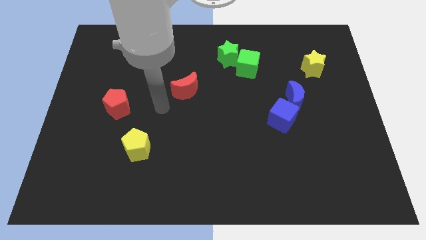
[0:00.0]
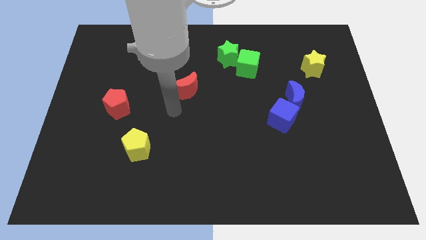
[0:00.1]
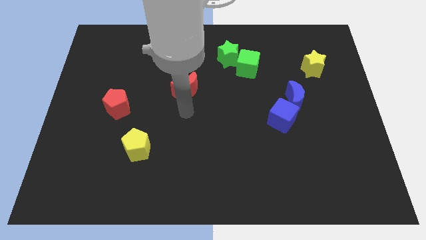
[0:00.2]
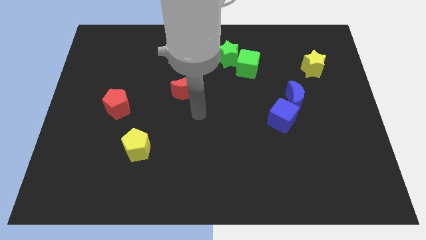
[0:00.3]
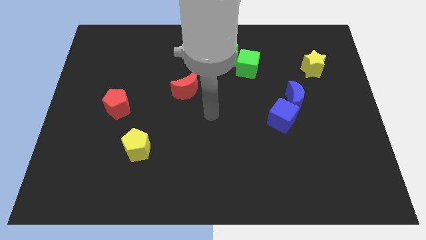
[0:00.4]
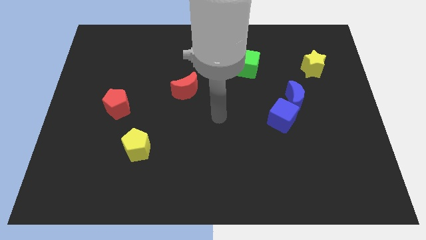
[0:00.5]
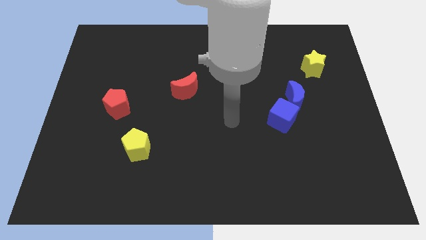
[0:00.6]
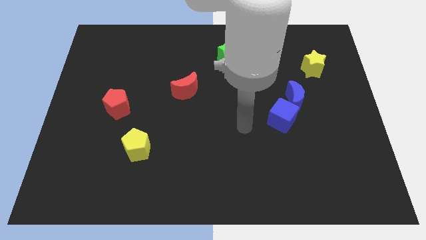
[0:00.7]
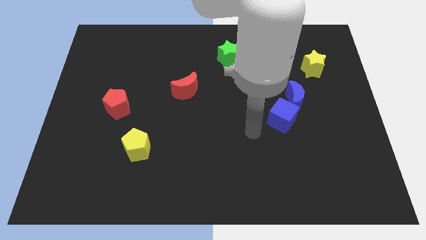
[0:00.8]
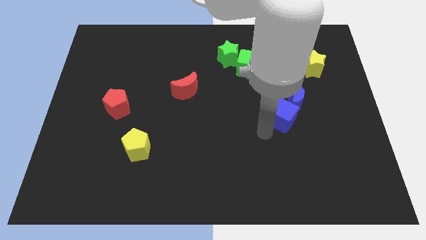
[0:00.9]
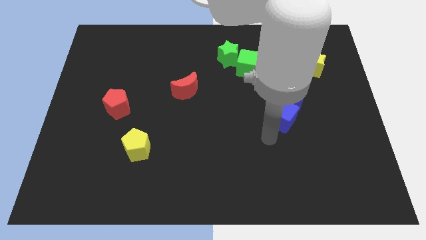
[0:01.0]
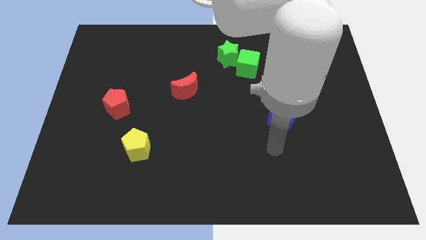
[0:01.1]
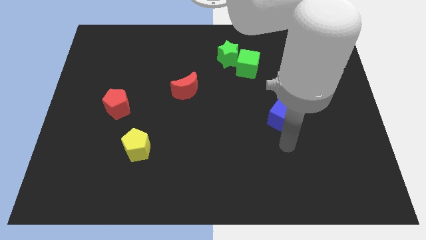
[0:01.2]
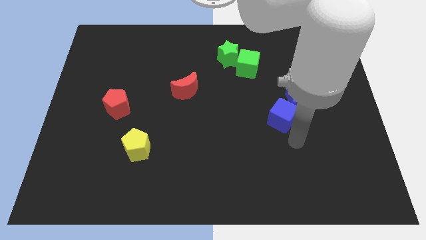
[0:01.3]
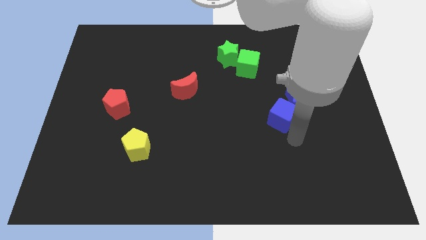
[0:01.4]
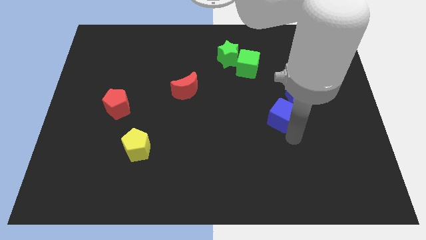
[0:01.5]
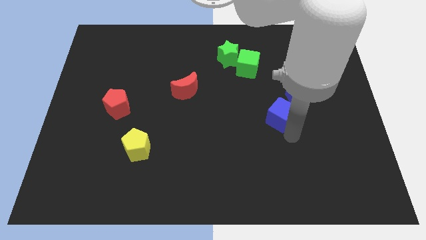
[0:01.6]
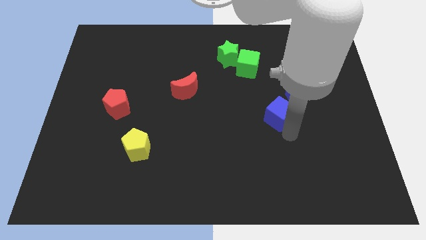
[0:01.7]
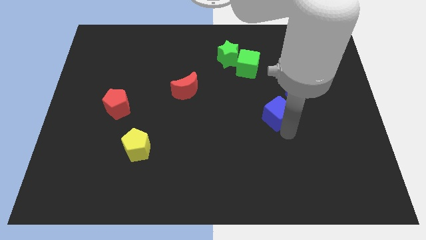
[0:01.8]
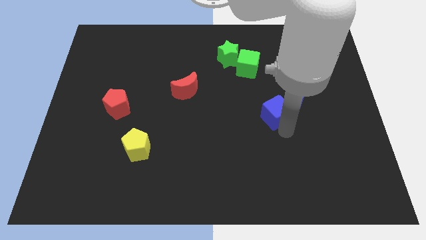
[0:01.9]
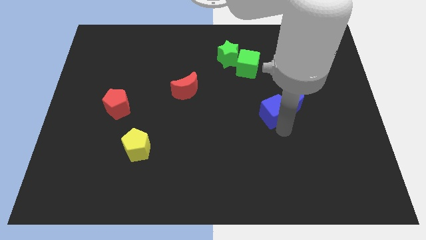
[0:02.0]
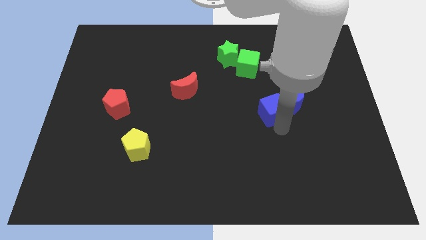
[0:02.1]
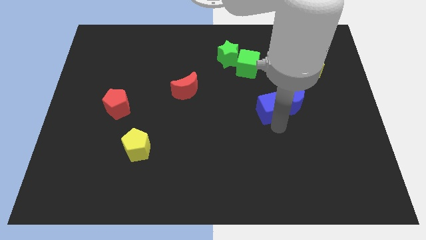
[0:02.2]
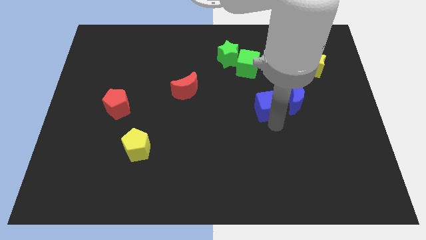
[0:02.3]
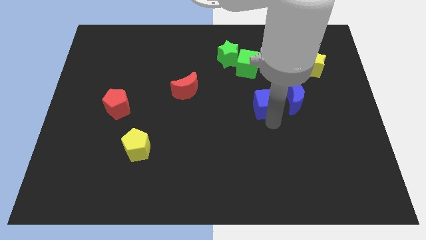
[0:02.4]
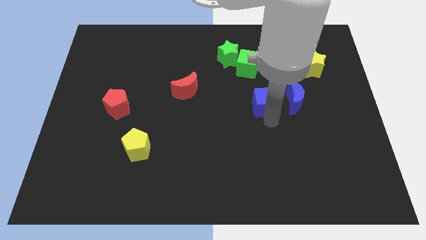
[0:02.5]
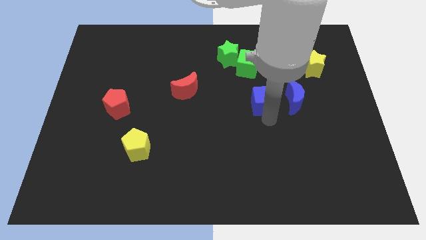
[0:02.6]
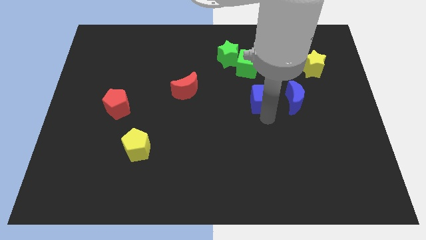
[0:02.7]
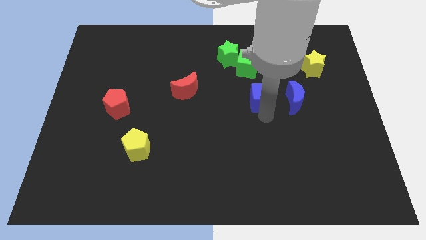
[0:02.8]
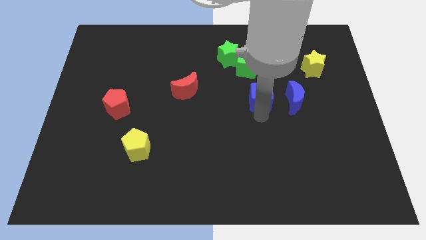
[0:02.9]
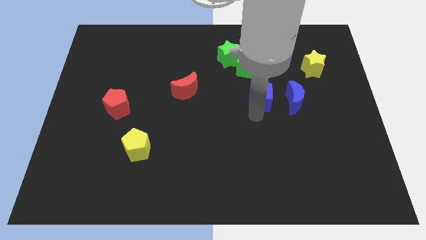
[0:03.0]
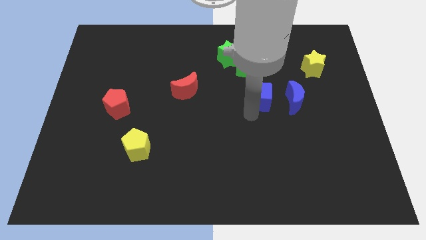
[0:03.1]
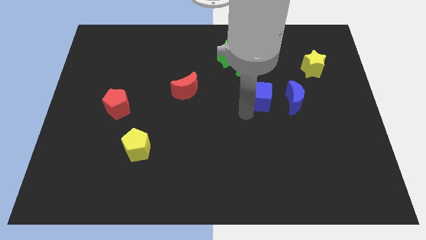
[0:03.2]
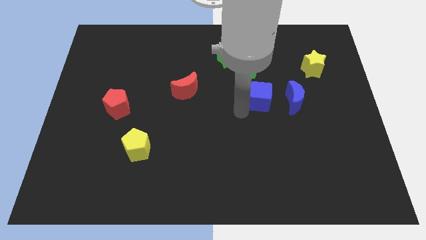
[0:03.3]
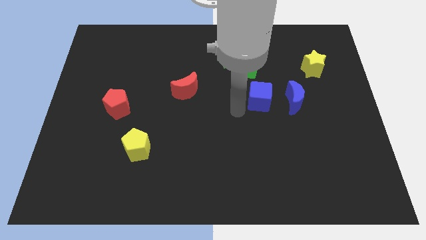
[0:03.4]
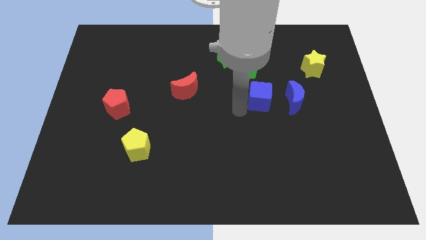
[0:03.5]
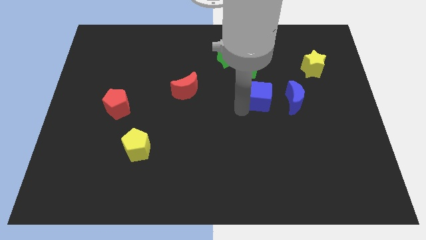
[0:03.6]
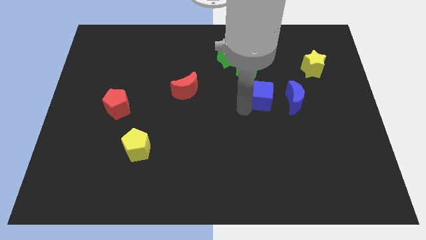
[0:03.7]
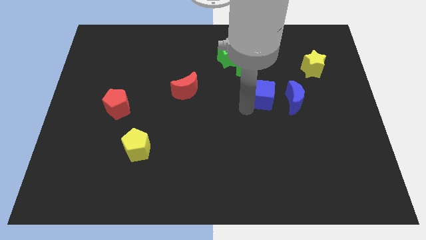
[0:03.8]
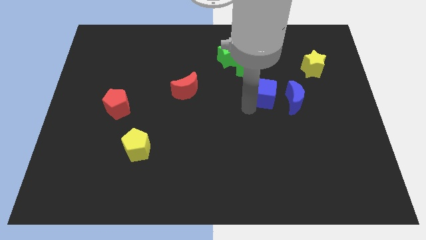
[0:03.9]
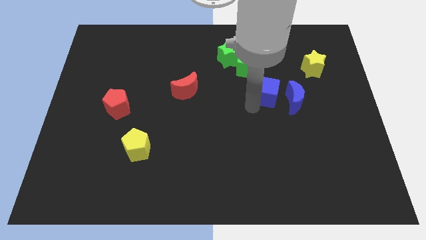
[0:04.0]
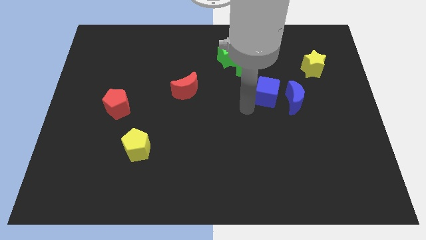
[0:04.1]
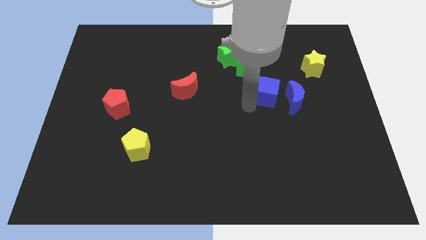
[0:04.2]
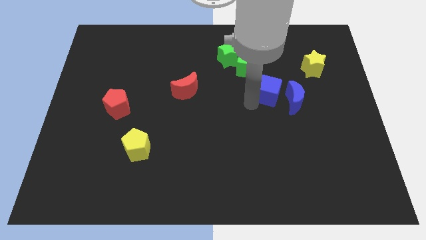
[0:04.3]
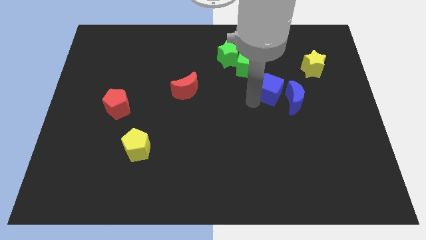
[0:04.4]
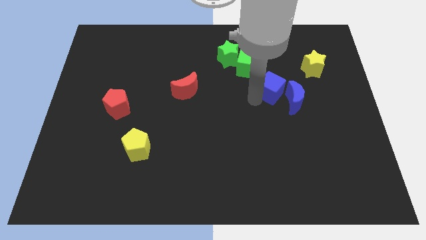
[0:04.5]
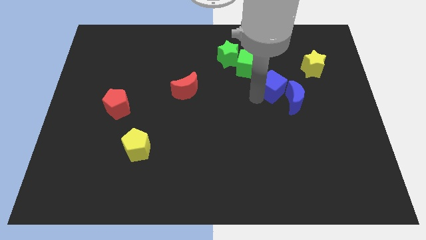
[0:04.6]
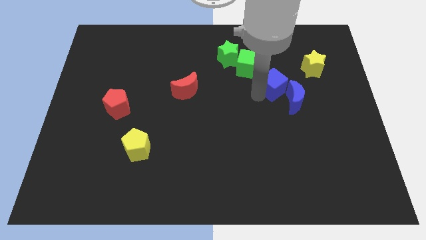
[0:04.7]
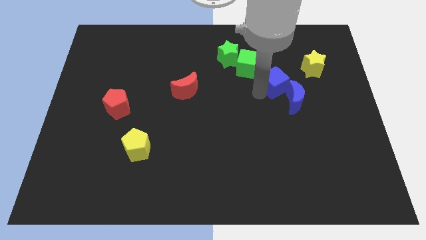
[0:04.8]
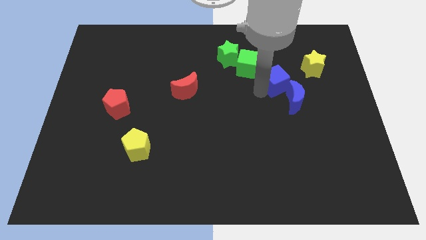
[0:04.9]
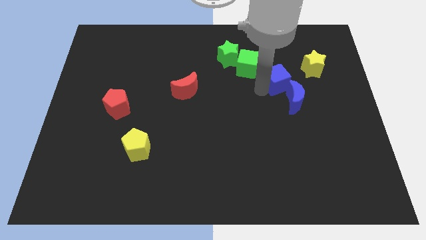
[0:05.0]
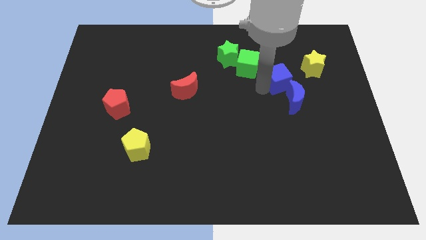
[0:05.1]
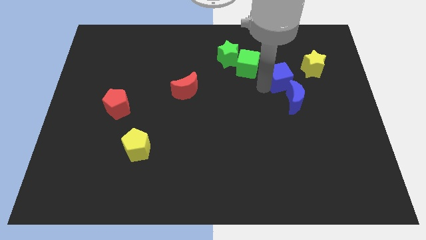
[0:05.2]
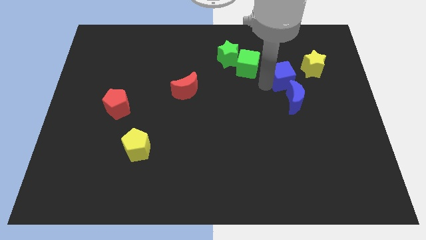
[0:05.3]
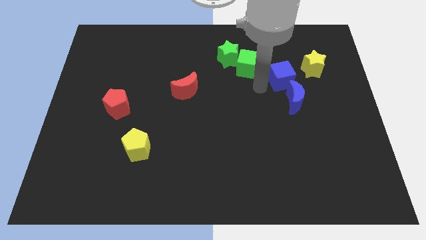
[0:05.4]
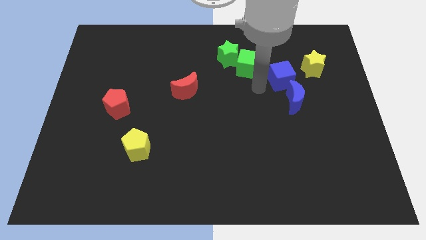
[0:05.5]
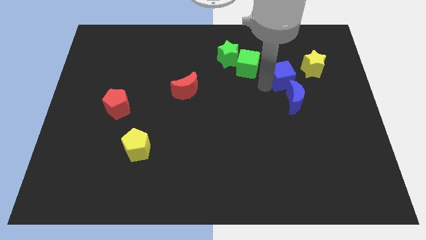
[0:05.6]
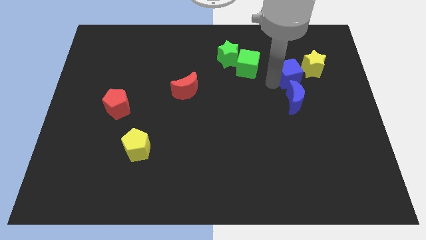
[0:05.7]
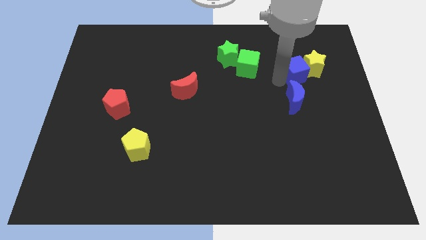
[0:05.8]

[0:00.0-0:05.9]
put the blue cube next to the yellow star

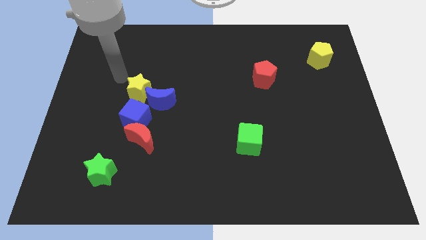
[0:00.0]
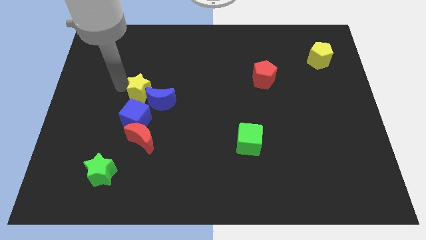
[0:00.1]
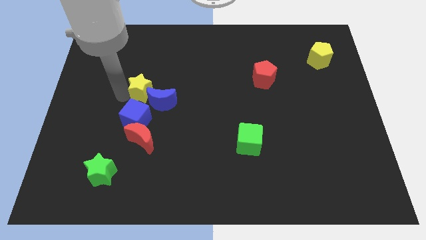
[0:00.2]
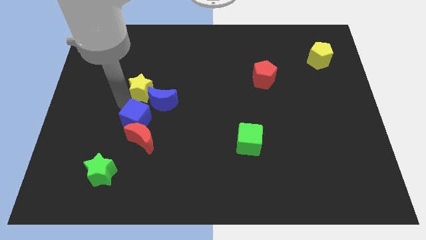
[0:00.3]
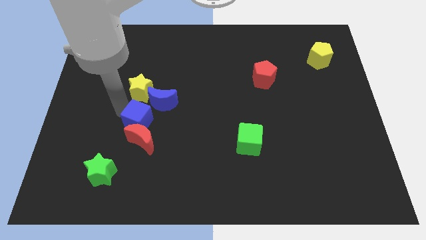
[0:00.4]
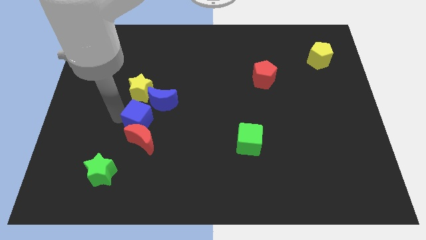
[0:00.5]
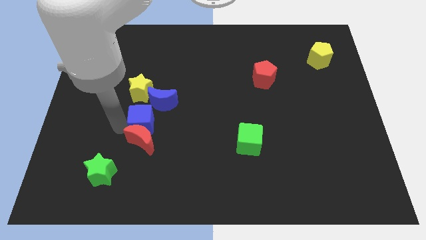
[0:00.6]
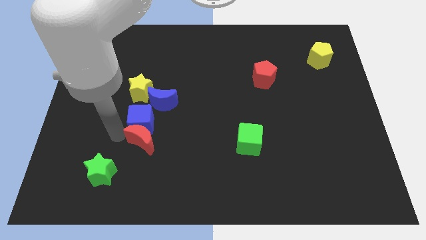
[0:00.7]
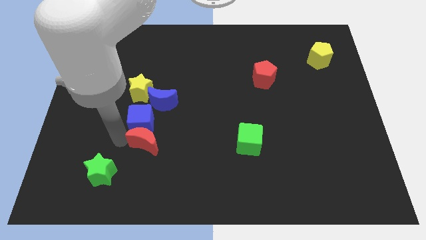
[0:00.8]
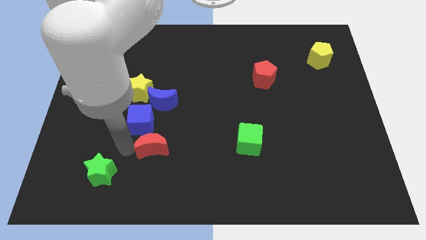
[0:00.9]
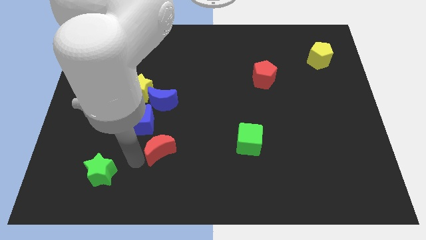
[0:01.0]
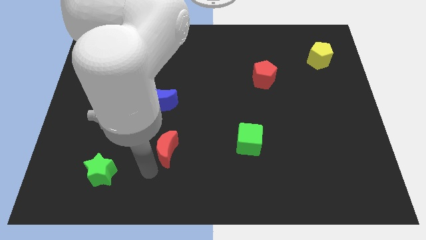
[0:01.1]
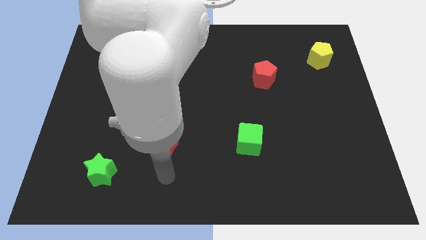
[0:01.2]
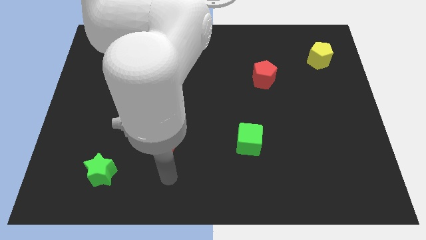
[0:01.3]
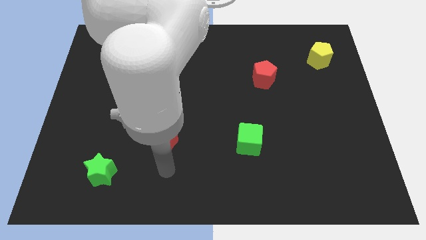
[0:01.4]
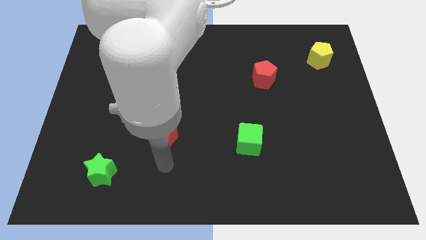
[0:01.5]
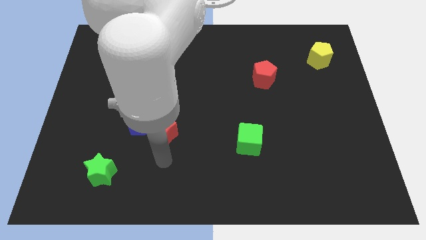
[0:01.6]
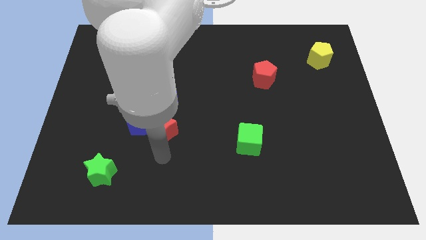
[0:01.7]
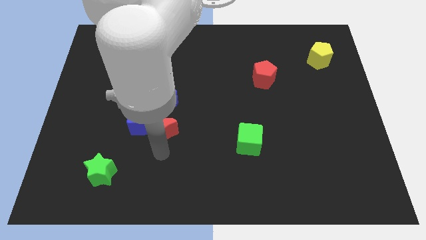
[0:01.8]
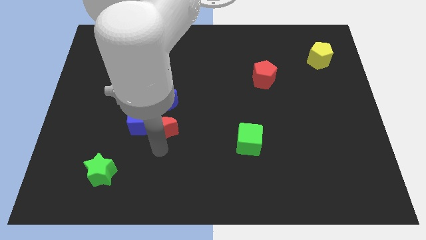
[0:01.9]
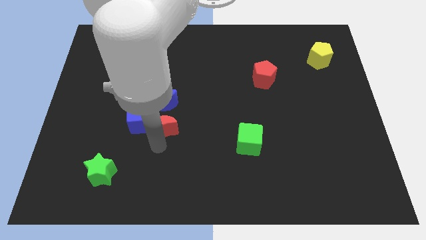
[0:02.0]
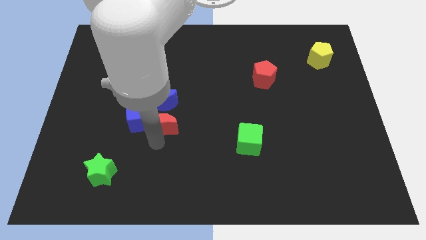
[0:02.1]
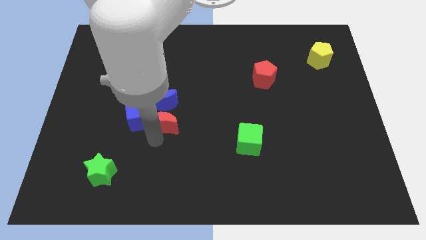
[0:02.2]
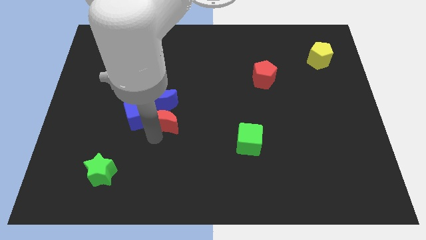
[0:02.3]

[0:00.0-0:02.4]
put the red moon towards the blue moon
